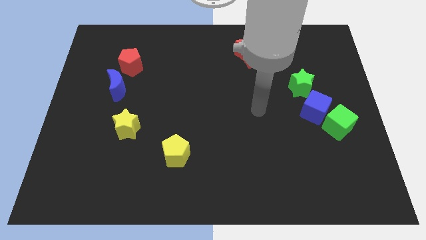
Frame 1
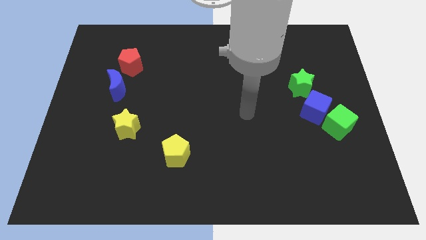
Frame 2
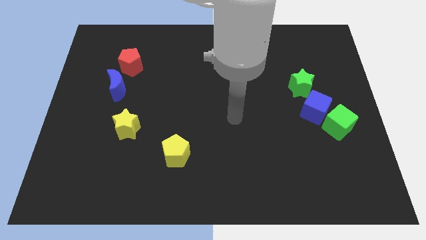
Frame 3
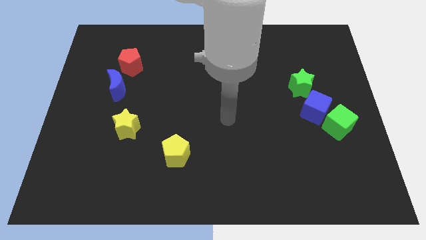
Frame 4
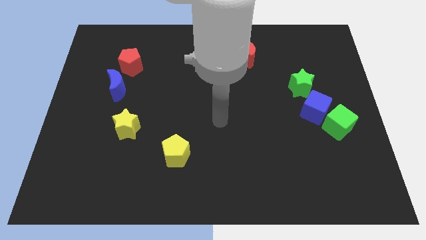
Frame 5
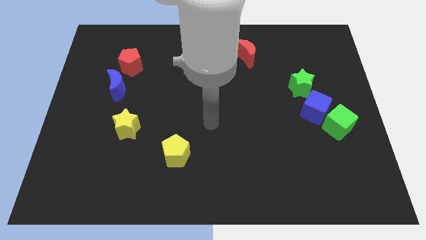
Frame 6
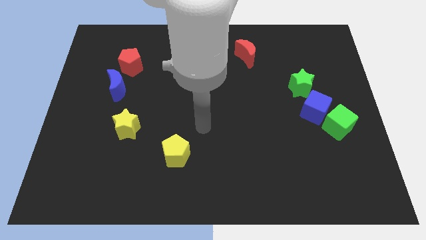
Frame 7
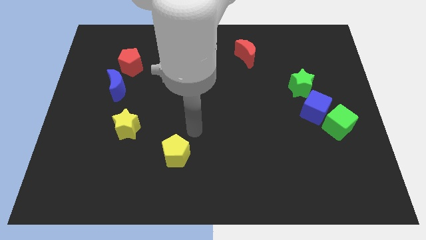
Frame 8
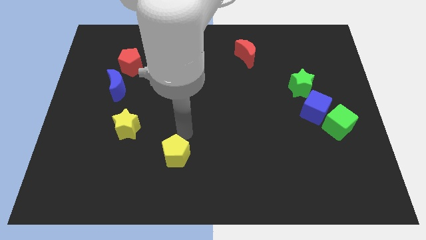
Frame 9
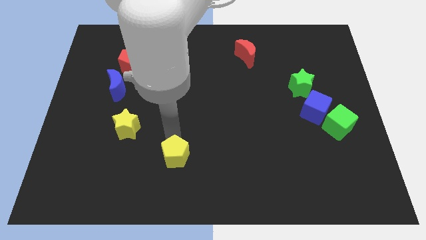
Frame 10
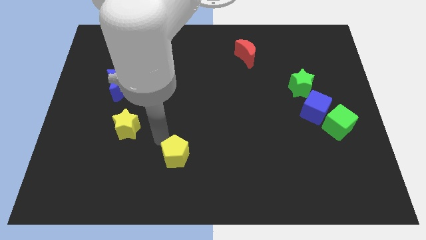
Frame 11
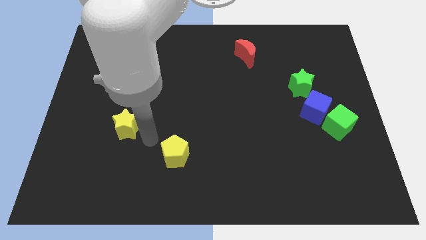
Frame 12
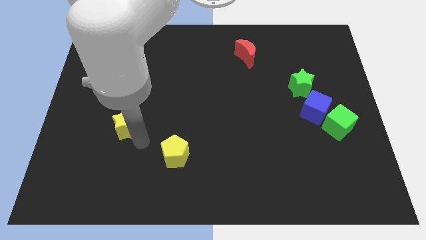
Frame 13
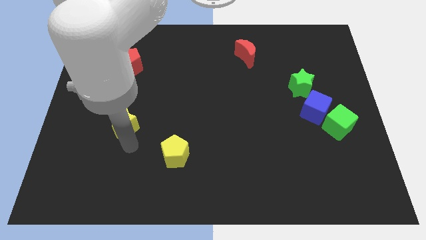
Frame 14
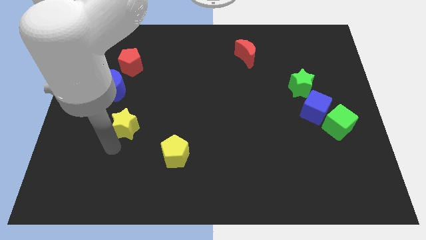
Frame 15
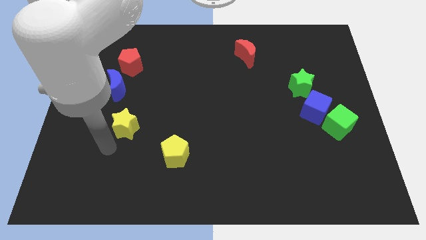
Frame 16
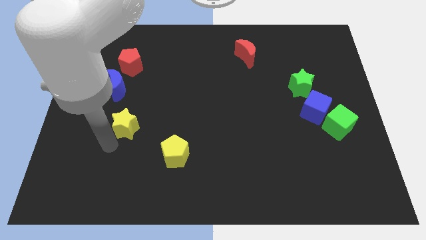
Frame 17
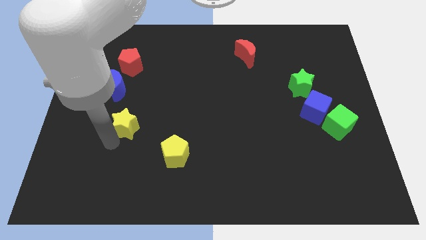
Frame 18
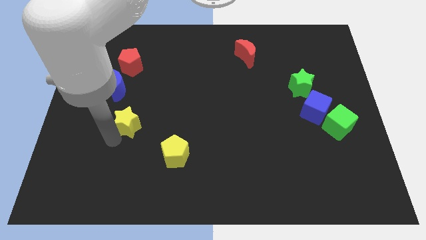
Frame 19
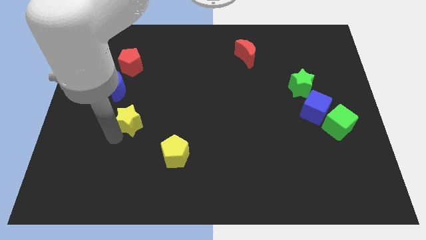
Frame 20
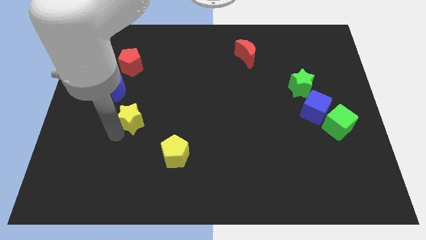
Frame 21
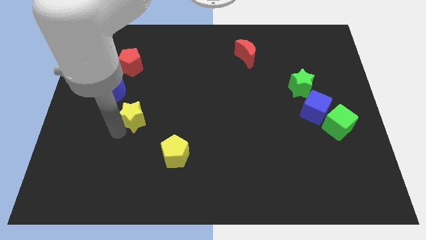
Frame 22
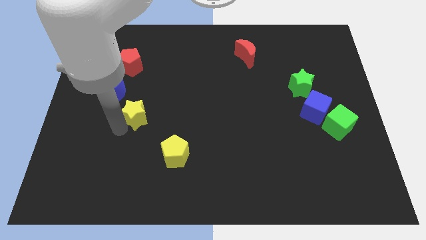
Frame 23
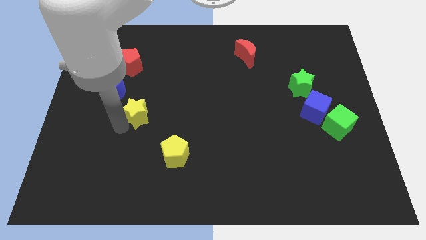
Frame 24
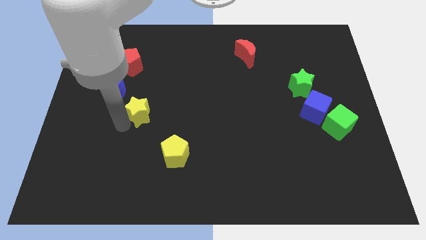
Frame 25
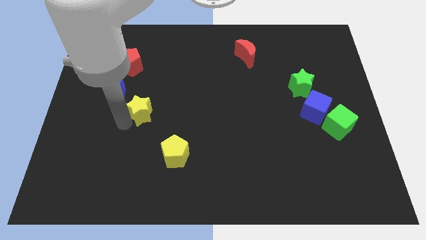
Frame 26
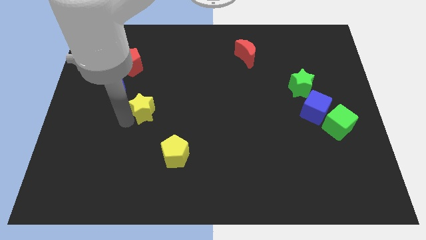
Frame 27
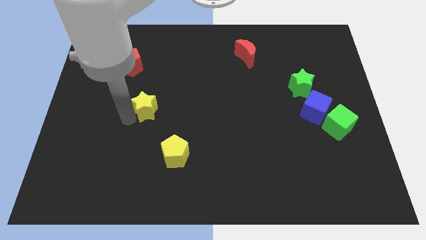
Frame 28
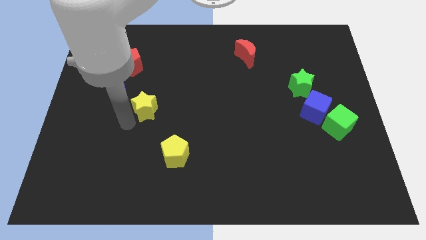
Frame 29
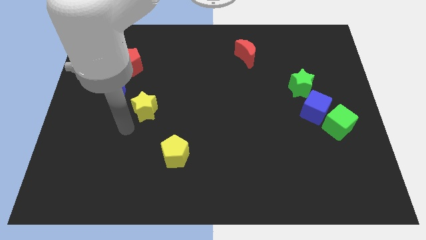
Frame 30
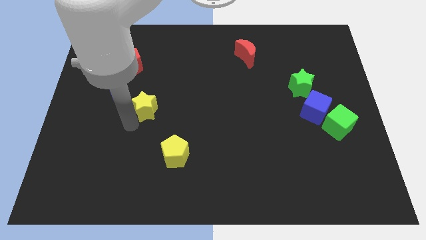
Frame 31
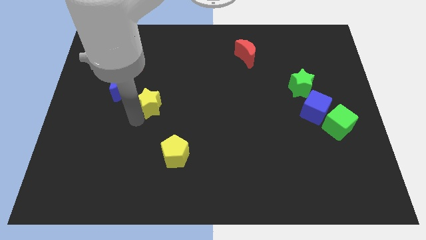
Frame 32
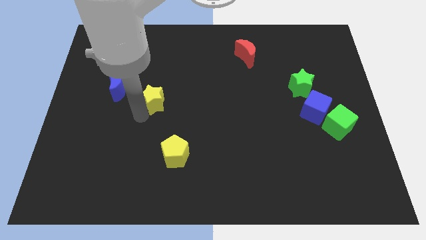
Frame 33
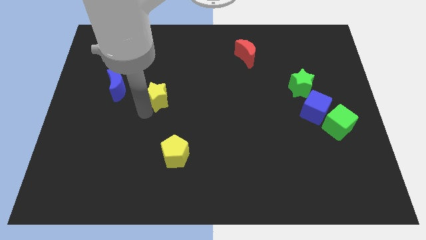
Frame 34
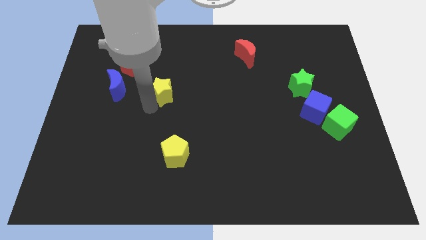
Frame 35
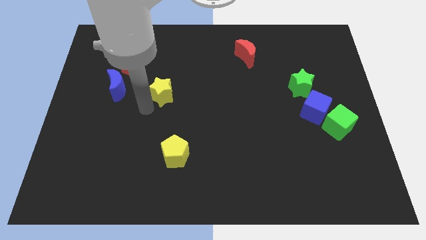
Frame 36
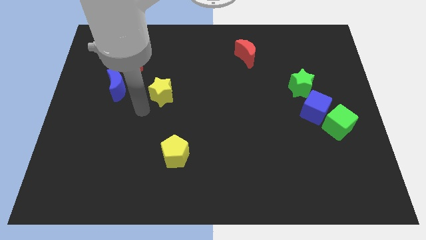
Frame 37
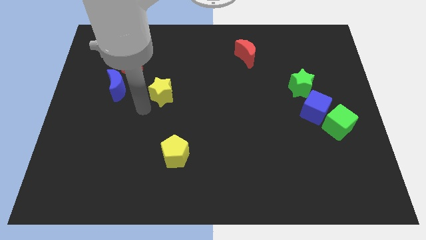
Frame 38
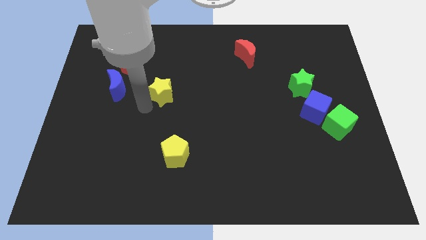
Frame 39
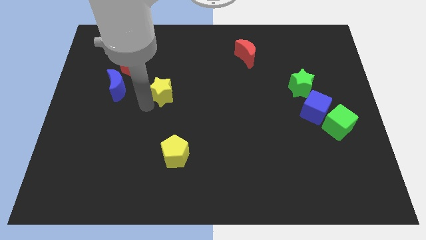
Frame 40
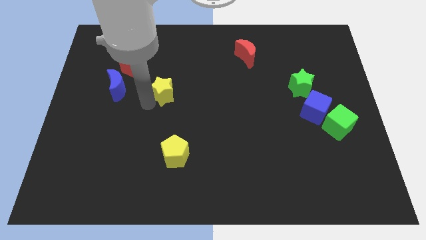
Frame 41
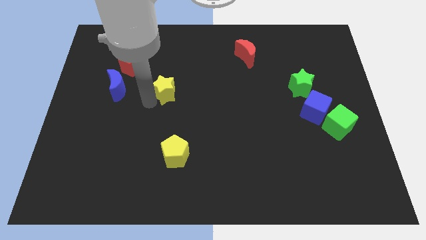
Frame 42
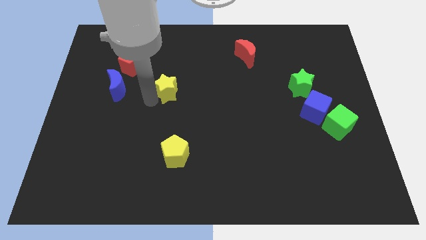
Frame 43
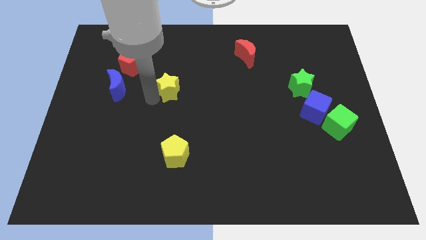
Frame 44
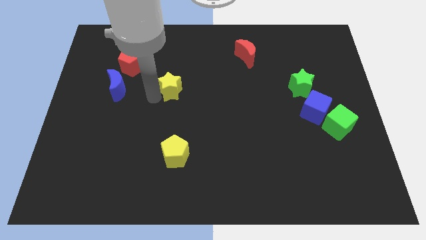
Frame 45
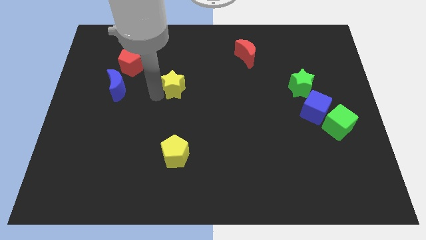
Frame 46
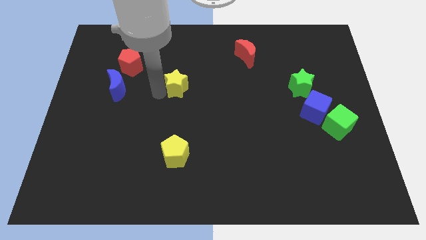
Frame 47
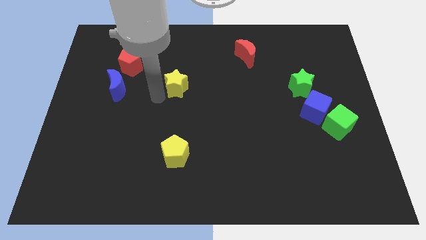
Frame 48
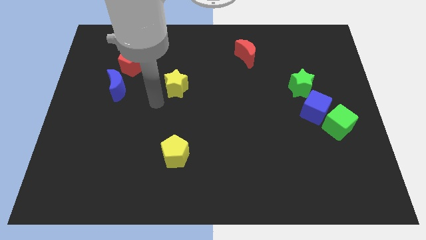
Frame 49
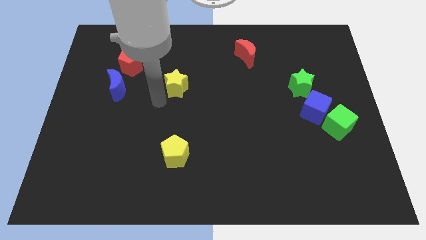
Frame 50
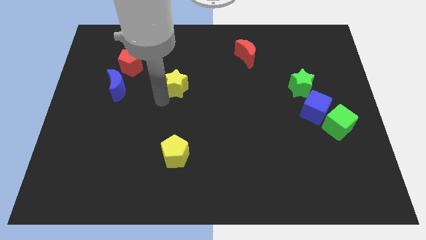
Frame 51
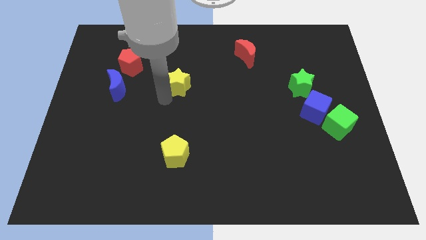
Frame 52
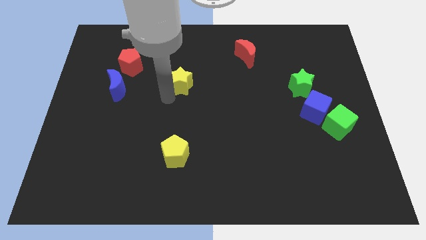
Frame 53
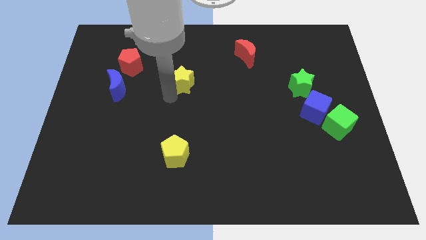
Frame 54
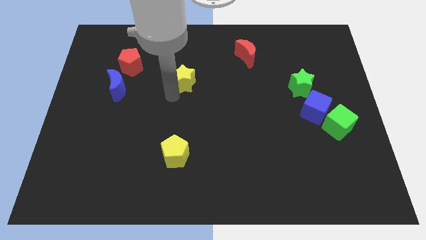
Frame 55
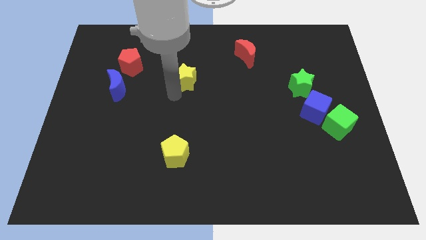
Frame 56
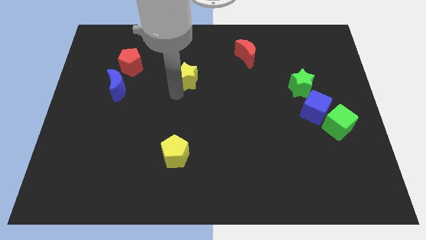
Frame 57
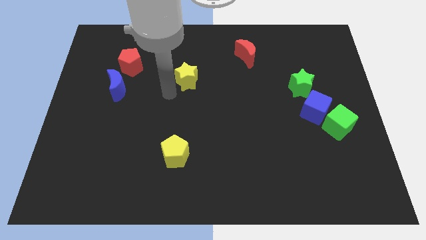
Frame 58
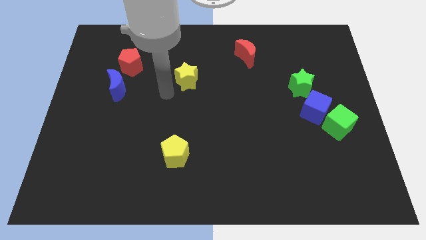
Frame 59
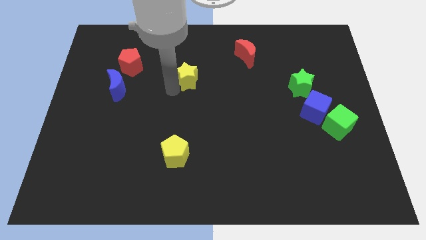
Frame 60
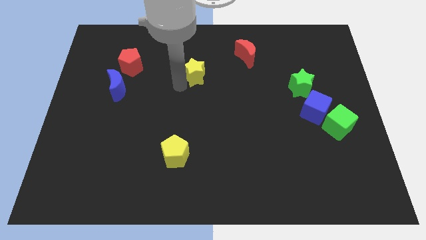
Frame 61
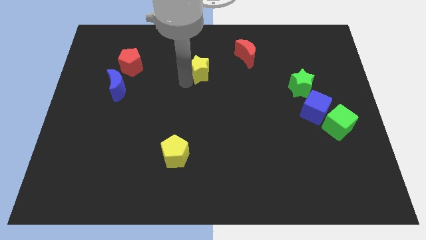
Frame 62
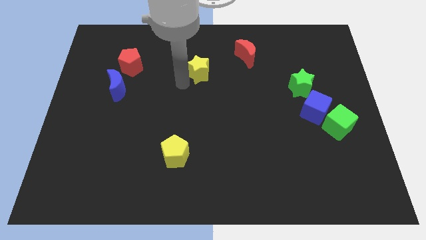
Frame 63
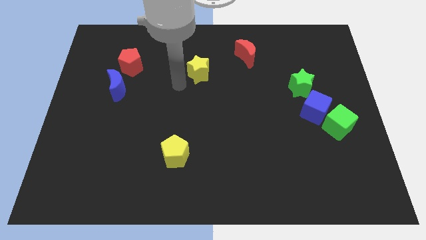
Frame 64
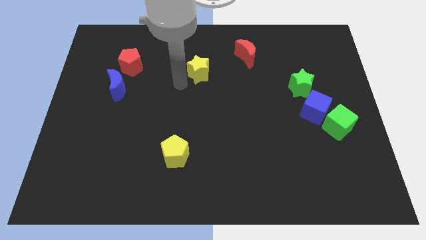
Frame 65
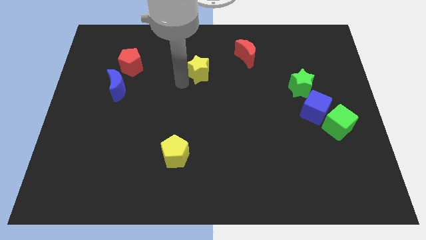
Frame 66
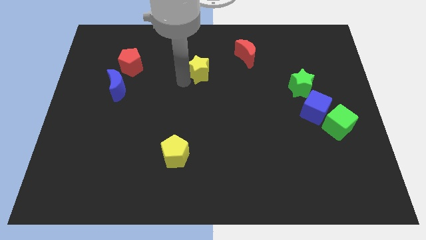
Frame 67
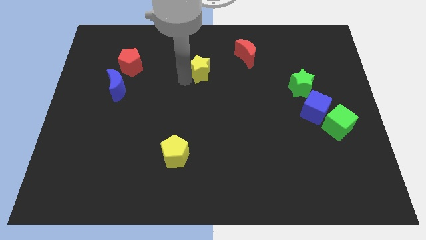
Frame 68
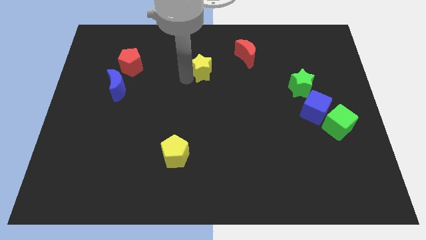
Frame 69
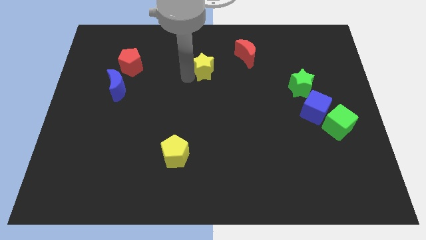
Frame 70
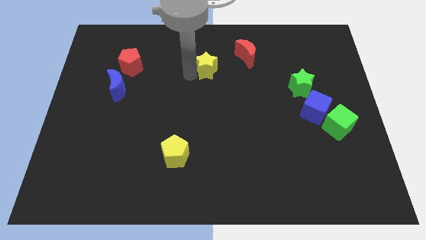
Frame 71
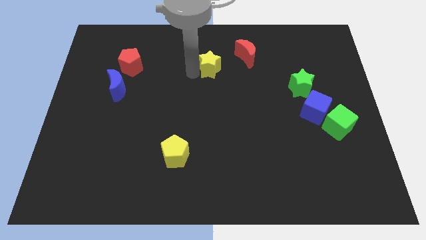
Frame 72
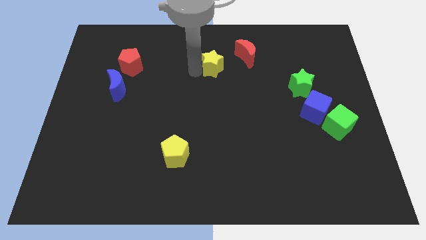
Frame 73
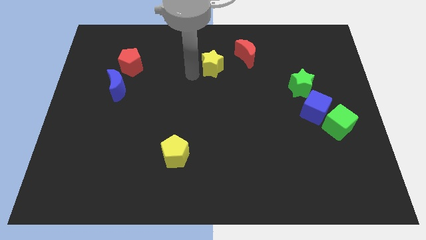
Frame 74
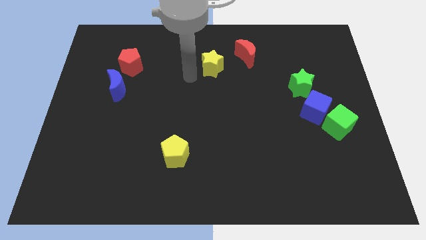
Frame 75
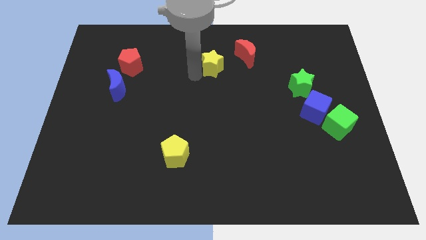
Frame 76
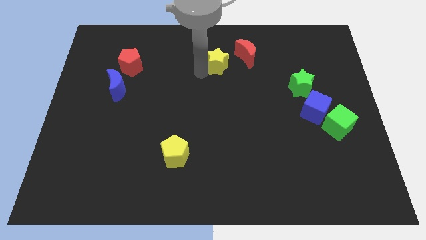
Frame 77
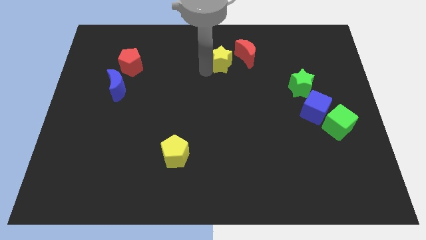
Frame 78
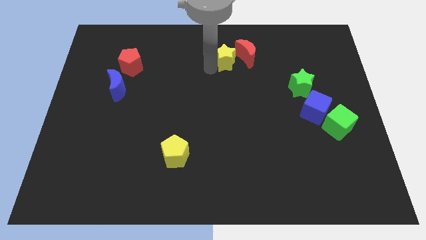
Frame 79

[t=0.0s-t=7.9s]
move the yellow star to the red moon
